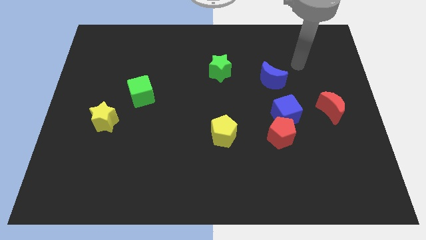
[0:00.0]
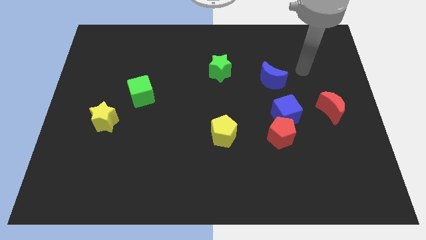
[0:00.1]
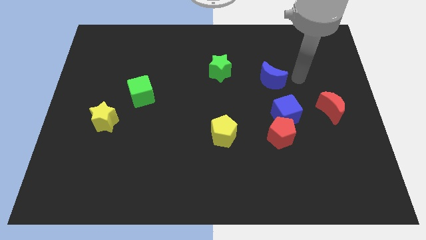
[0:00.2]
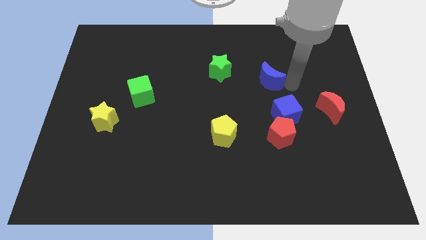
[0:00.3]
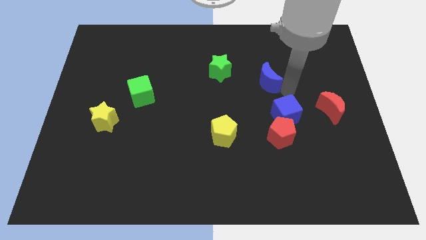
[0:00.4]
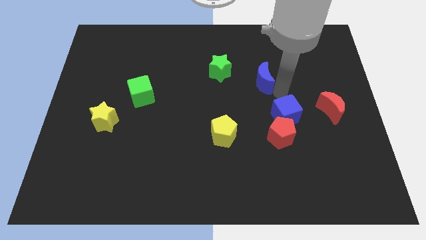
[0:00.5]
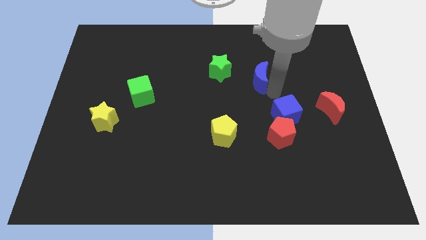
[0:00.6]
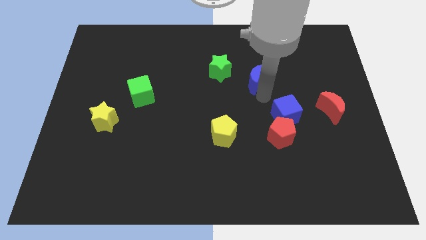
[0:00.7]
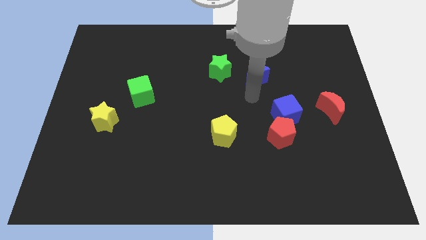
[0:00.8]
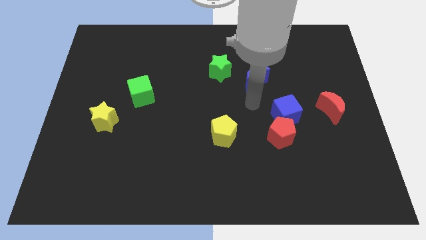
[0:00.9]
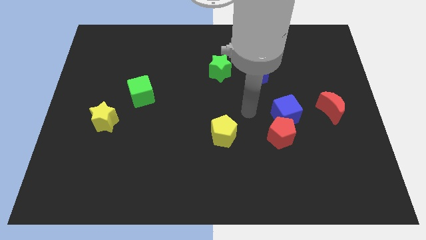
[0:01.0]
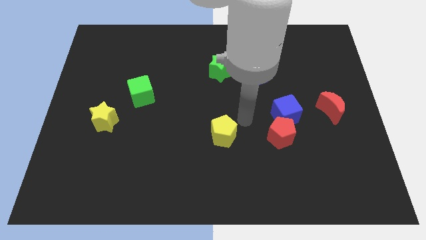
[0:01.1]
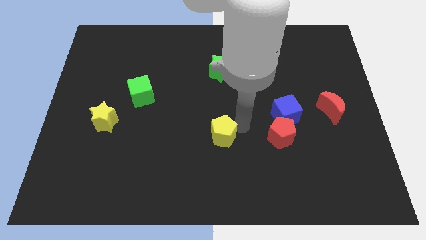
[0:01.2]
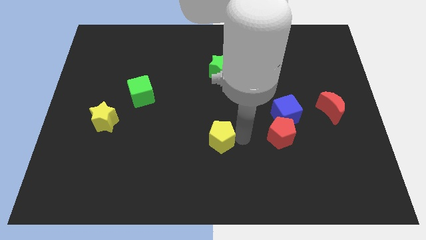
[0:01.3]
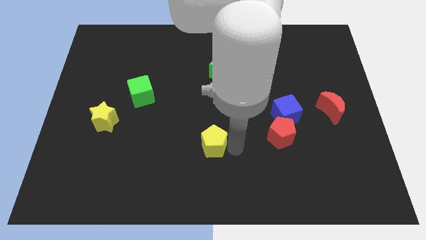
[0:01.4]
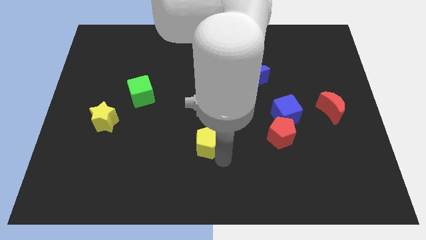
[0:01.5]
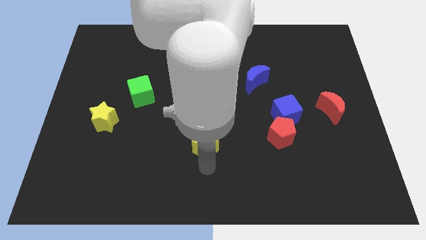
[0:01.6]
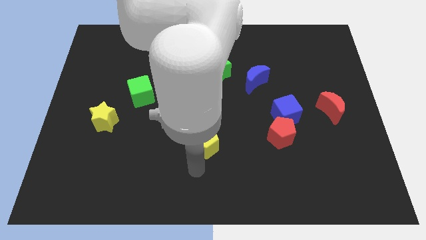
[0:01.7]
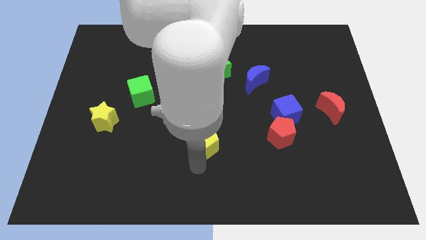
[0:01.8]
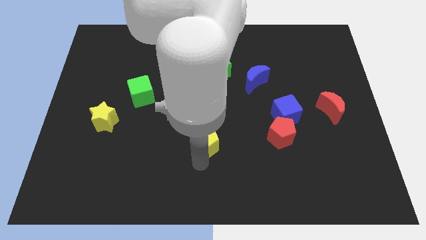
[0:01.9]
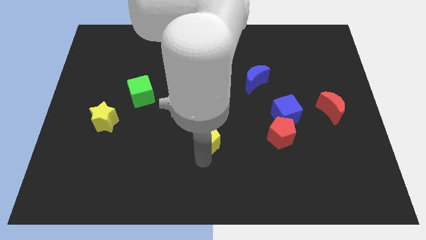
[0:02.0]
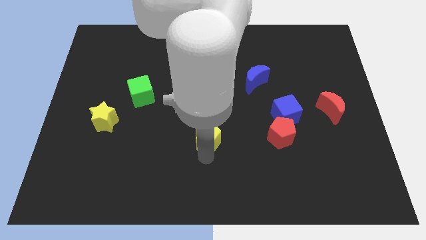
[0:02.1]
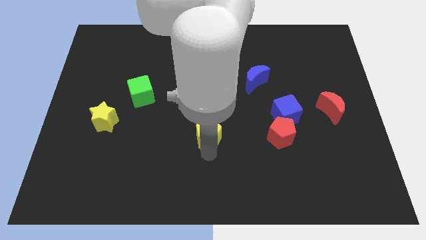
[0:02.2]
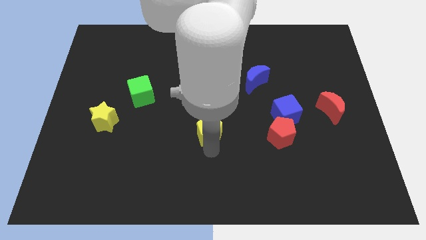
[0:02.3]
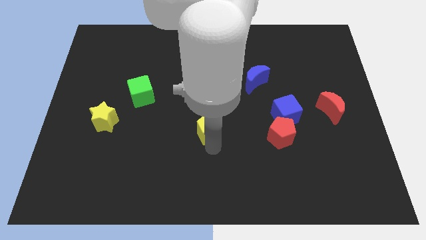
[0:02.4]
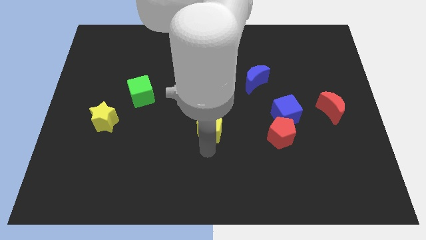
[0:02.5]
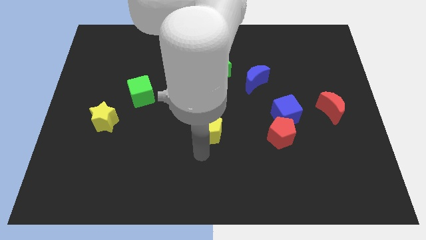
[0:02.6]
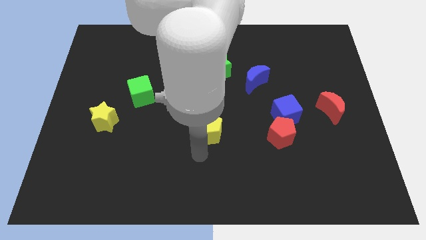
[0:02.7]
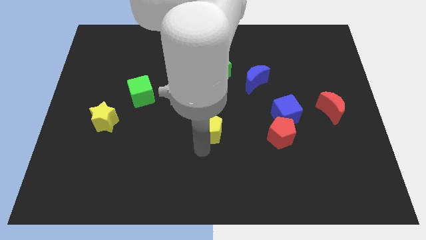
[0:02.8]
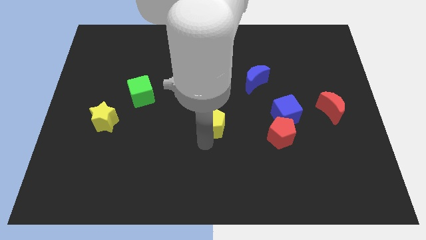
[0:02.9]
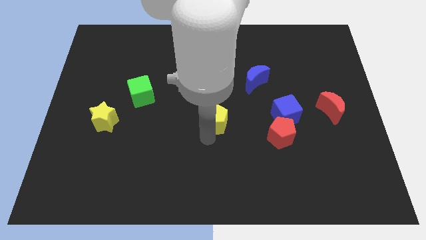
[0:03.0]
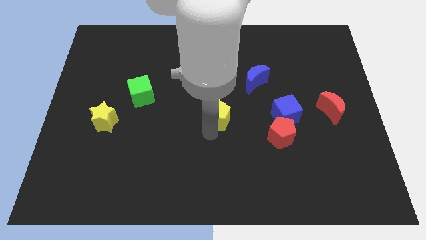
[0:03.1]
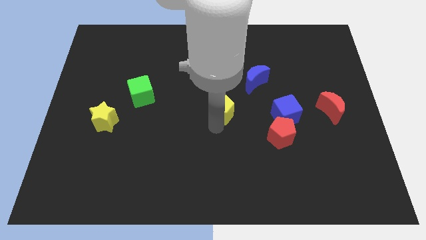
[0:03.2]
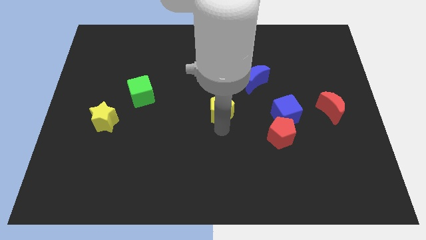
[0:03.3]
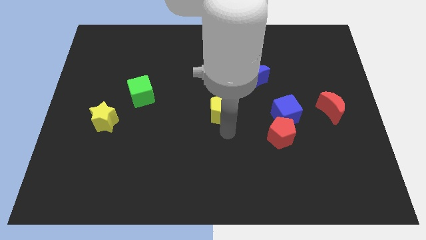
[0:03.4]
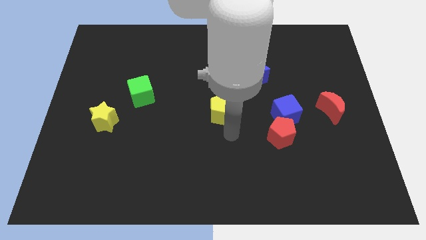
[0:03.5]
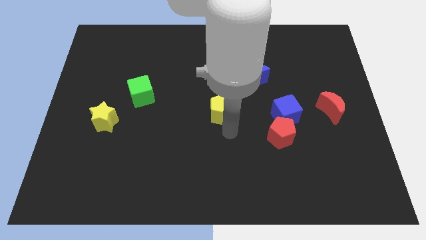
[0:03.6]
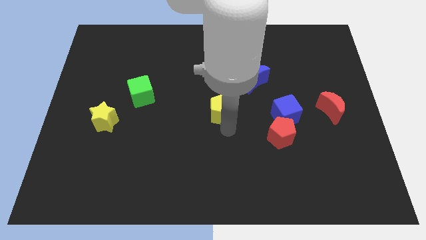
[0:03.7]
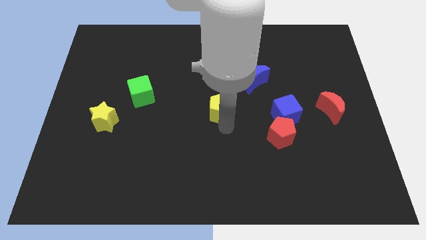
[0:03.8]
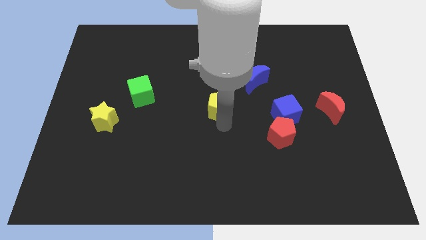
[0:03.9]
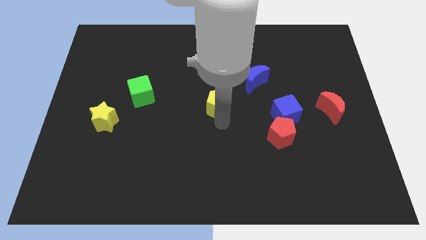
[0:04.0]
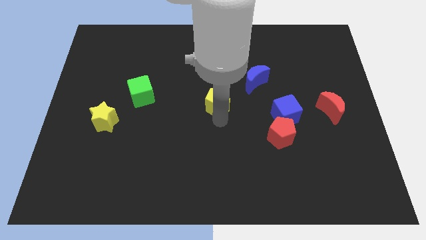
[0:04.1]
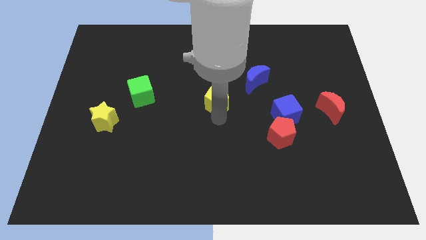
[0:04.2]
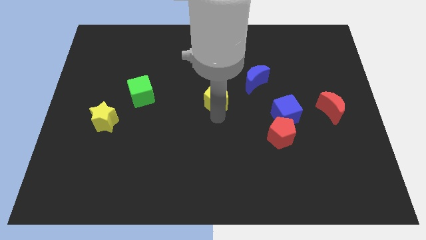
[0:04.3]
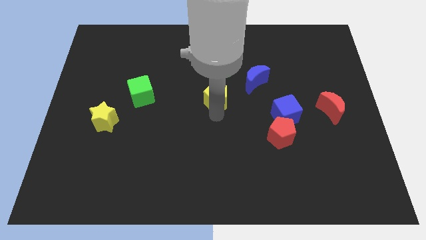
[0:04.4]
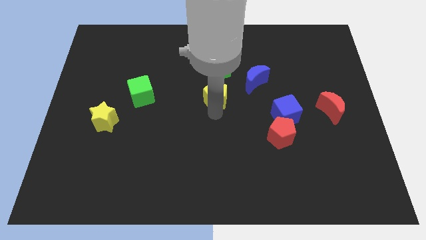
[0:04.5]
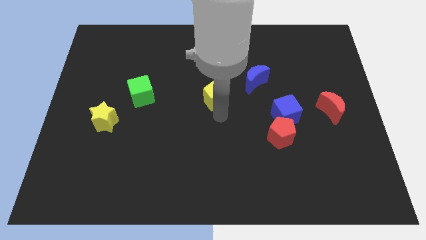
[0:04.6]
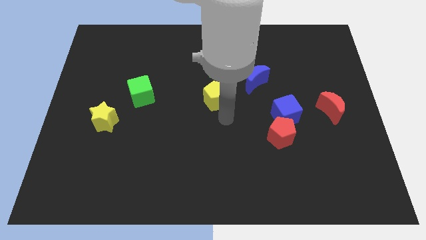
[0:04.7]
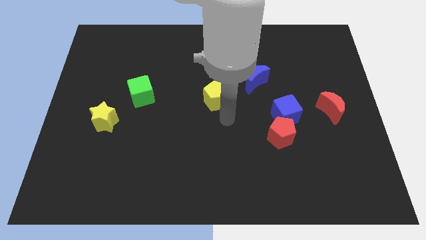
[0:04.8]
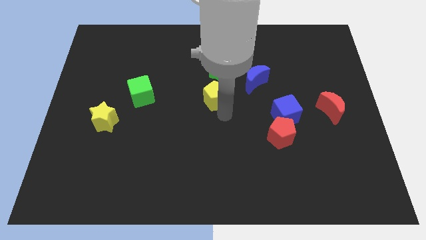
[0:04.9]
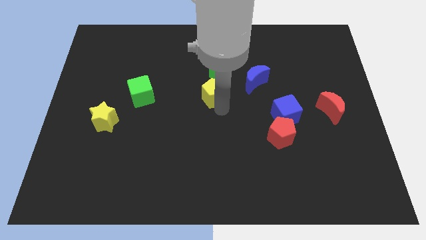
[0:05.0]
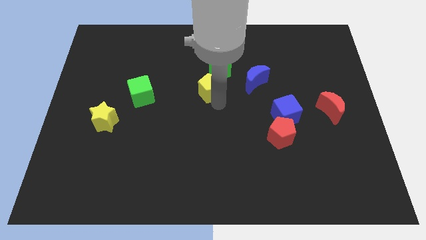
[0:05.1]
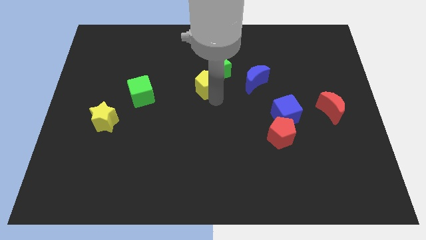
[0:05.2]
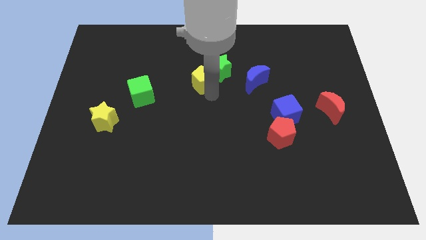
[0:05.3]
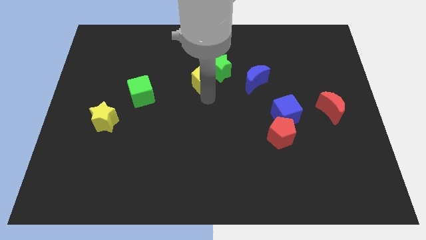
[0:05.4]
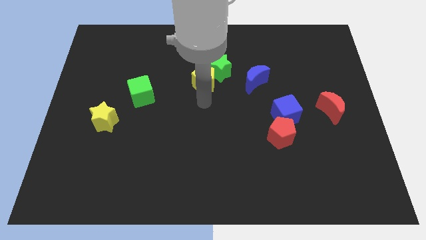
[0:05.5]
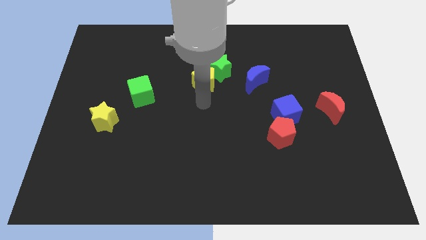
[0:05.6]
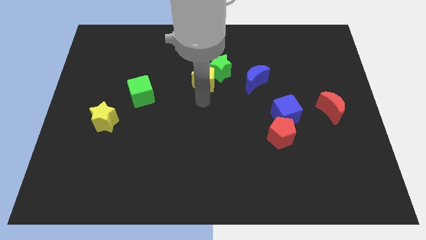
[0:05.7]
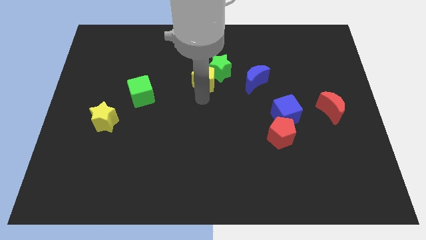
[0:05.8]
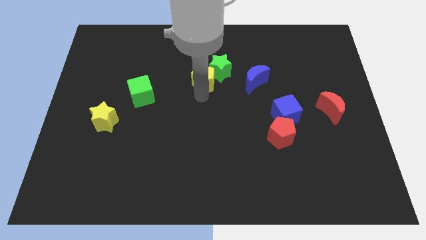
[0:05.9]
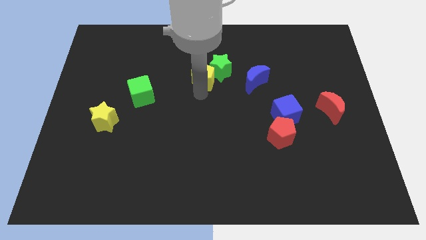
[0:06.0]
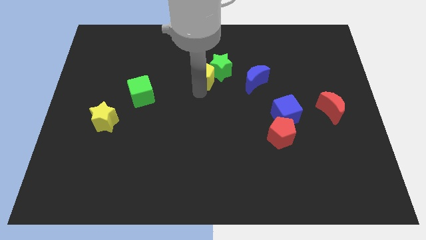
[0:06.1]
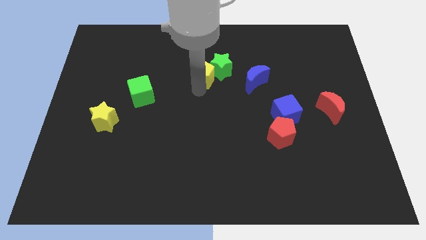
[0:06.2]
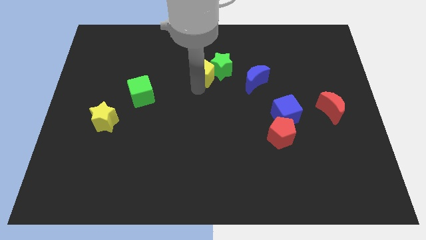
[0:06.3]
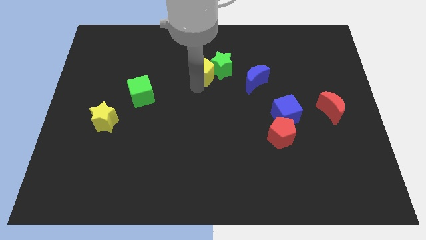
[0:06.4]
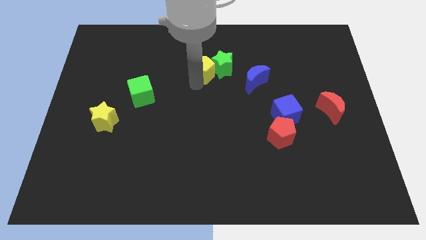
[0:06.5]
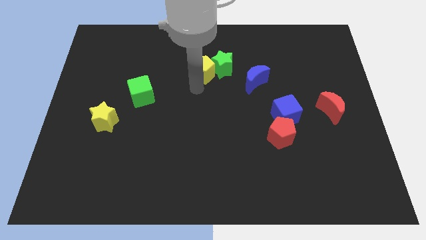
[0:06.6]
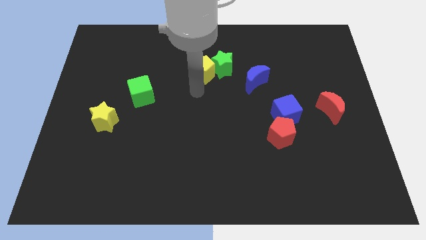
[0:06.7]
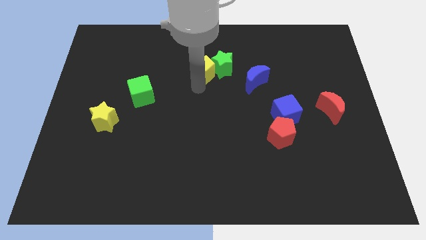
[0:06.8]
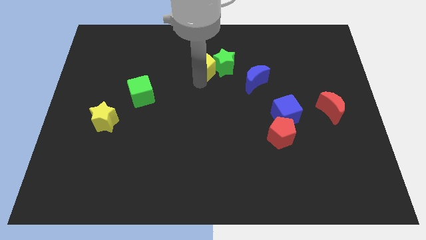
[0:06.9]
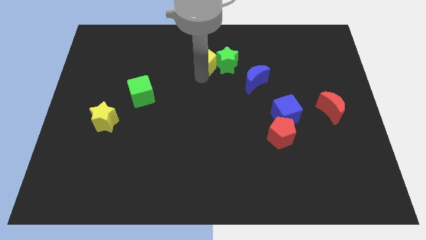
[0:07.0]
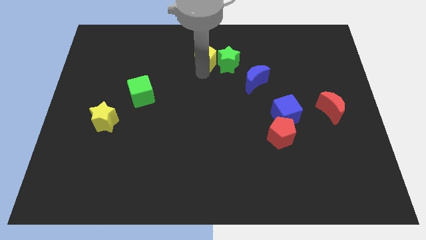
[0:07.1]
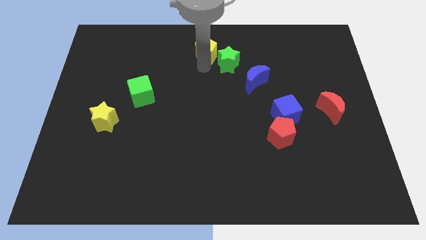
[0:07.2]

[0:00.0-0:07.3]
move the yellow pentagon to the top side
